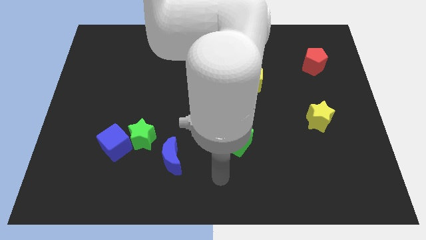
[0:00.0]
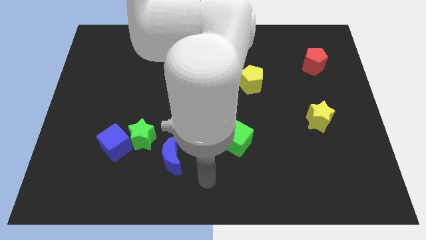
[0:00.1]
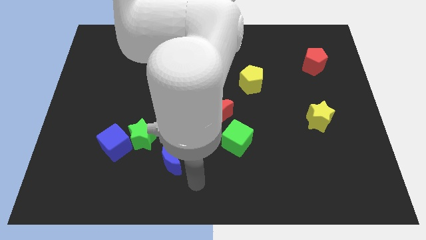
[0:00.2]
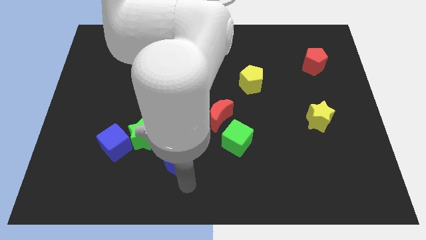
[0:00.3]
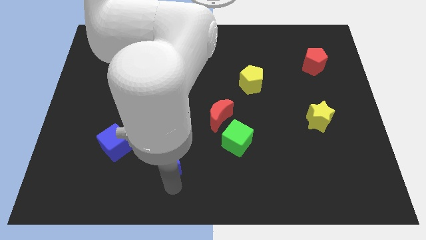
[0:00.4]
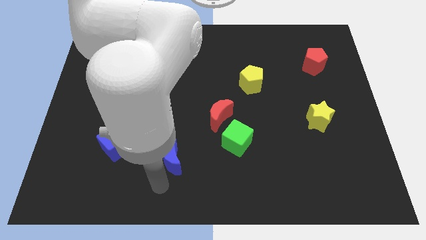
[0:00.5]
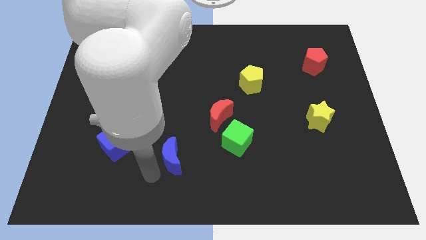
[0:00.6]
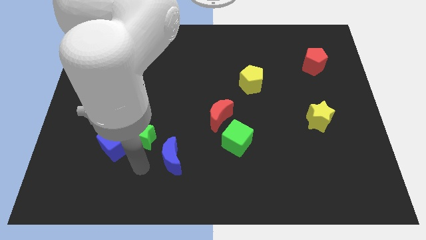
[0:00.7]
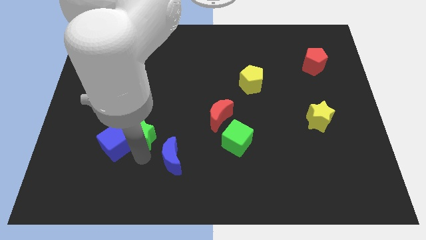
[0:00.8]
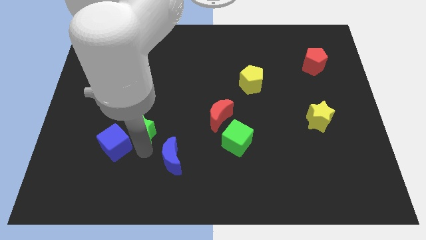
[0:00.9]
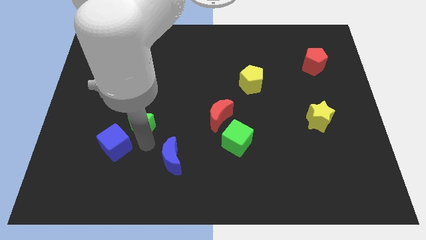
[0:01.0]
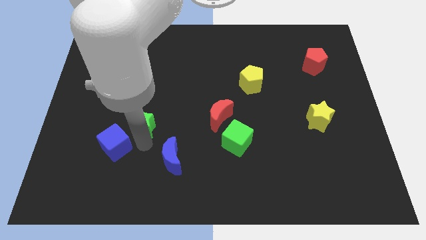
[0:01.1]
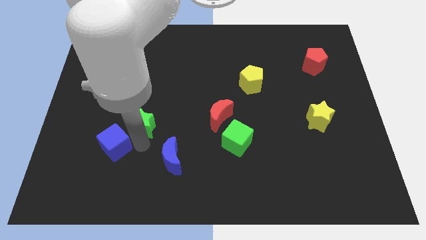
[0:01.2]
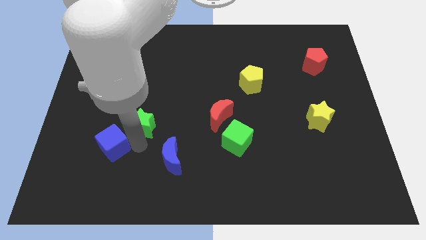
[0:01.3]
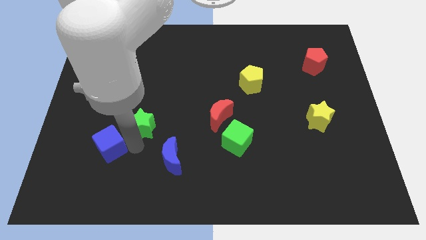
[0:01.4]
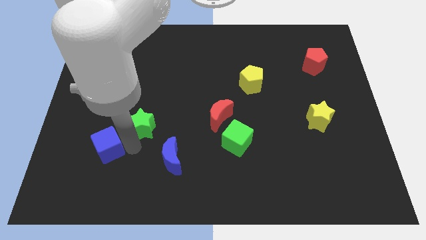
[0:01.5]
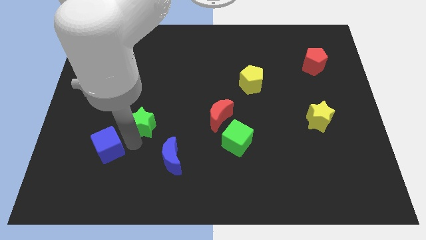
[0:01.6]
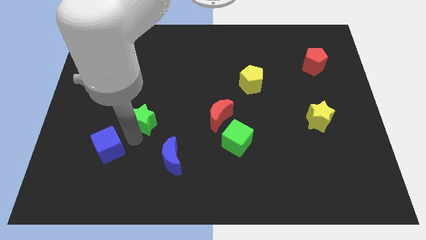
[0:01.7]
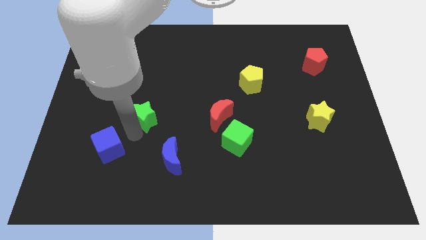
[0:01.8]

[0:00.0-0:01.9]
move the blue cube away from the green star

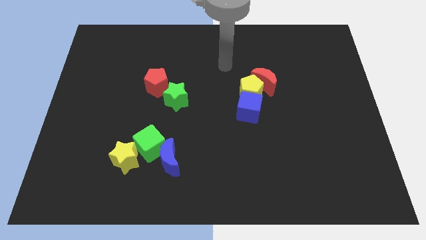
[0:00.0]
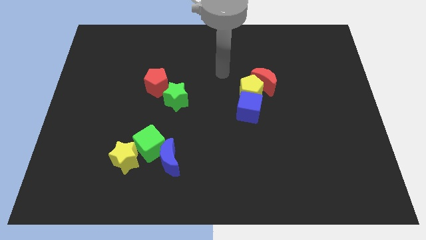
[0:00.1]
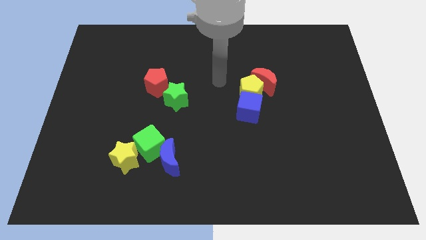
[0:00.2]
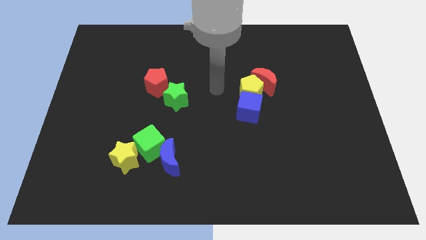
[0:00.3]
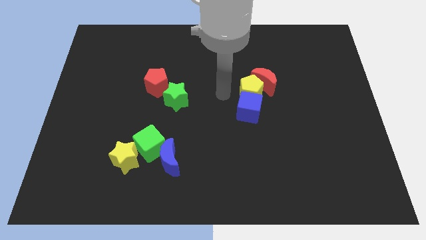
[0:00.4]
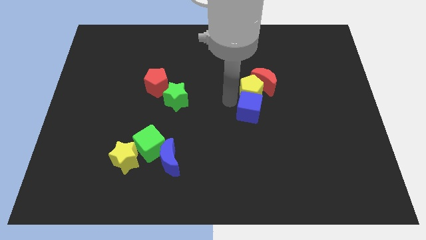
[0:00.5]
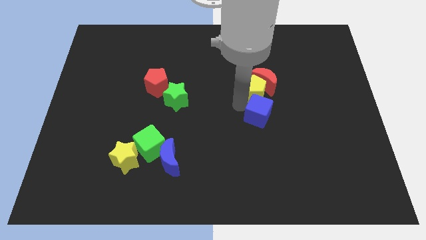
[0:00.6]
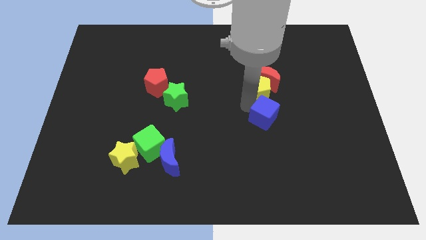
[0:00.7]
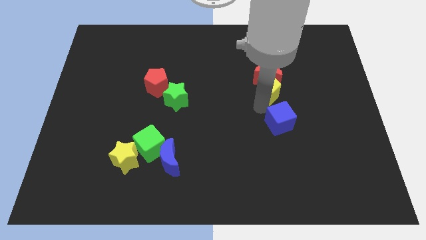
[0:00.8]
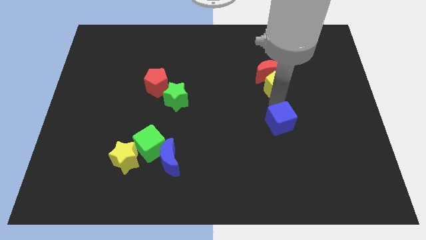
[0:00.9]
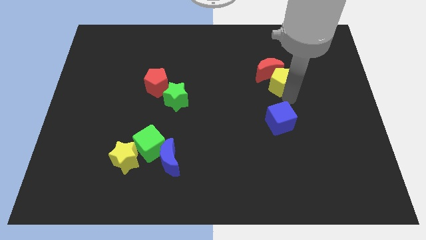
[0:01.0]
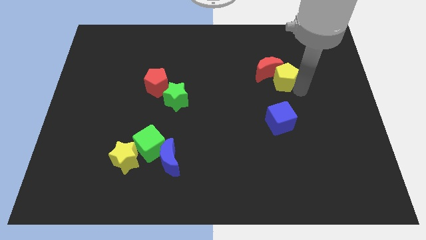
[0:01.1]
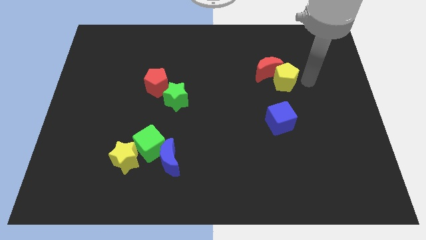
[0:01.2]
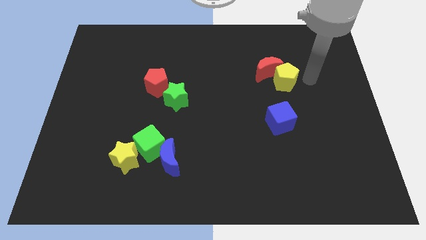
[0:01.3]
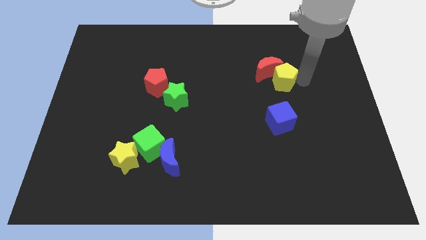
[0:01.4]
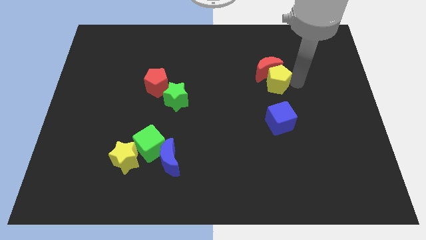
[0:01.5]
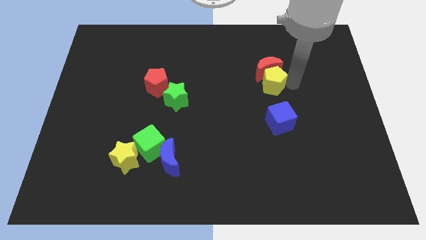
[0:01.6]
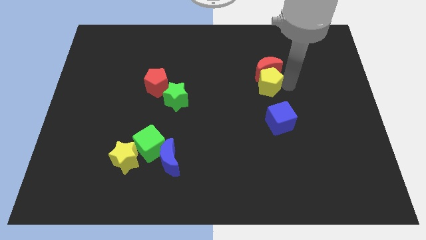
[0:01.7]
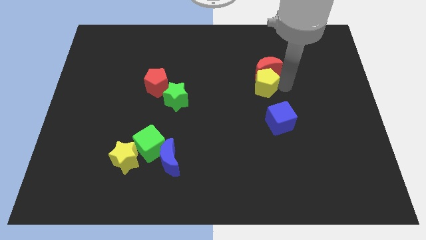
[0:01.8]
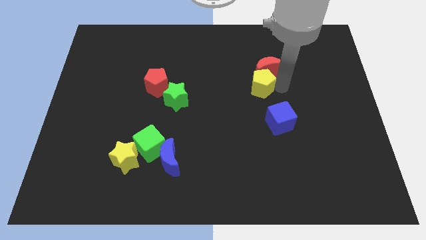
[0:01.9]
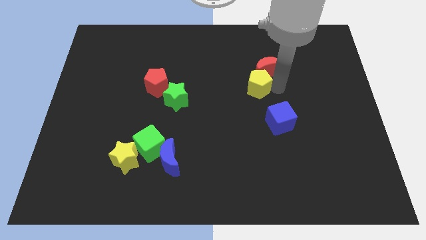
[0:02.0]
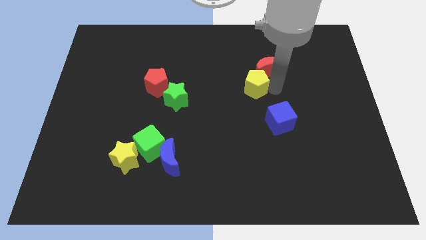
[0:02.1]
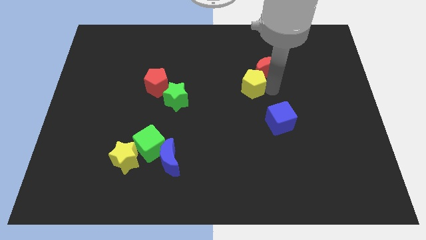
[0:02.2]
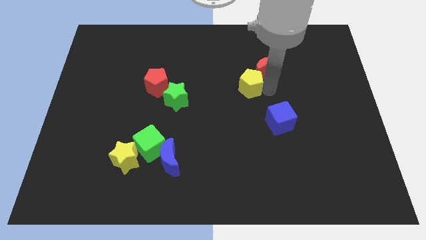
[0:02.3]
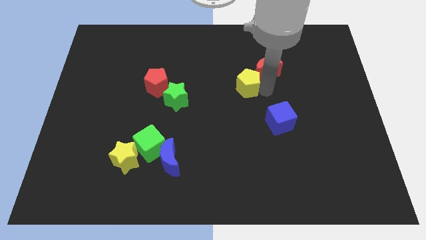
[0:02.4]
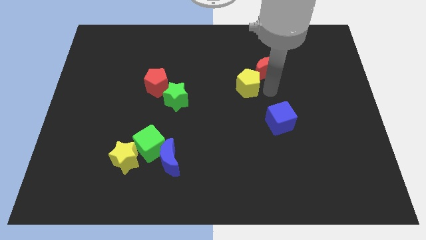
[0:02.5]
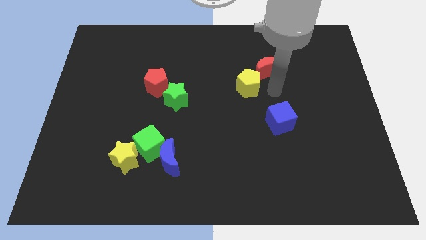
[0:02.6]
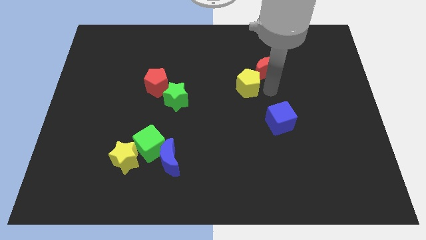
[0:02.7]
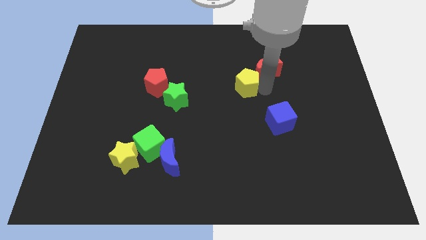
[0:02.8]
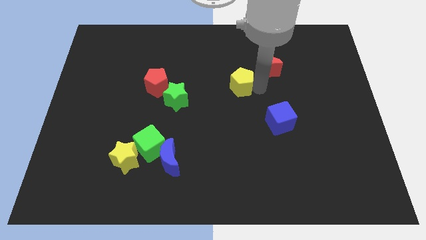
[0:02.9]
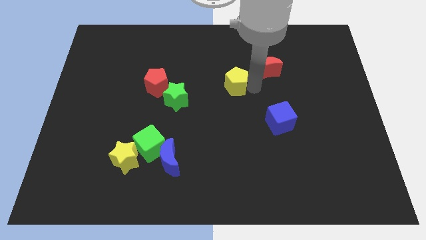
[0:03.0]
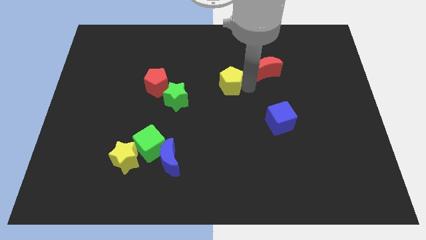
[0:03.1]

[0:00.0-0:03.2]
pull the yellow pentagon apart from the red moon and blue cube

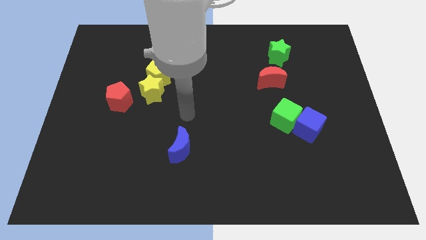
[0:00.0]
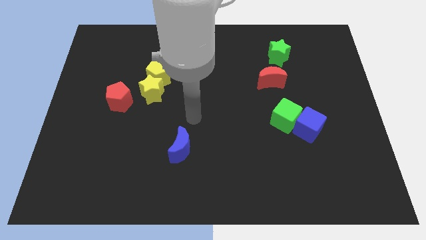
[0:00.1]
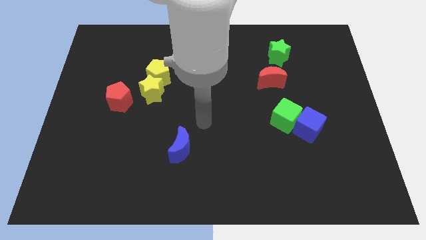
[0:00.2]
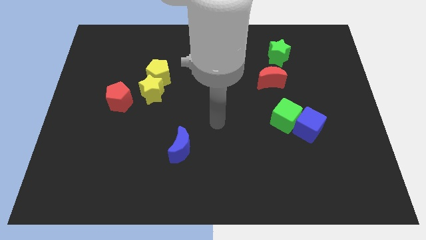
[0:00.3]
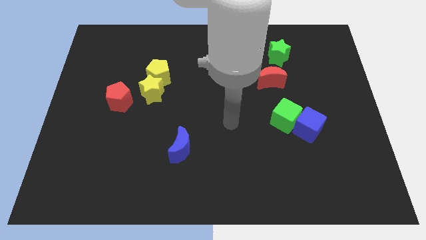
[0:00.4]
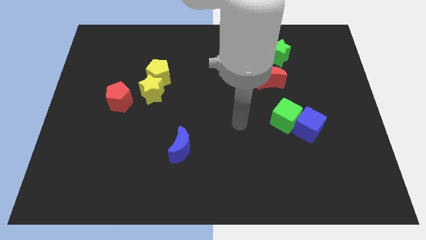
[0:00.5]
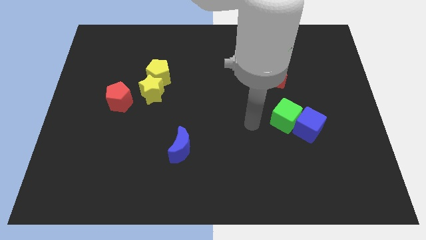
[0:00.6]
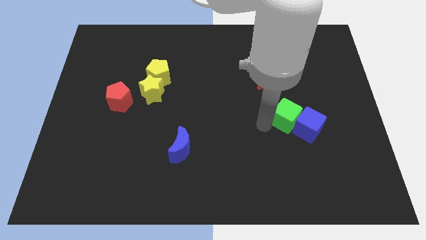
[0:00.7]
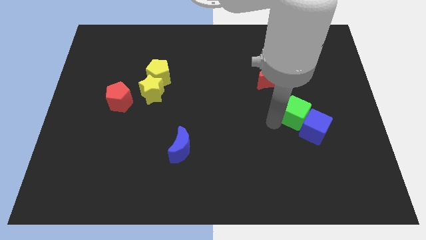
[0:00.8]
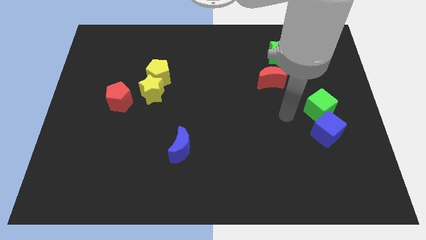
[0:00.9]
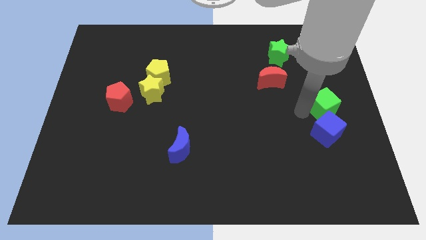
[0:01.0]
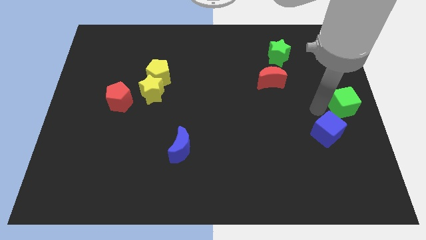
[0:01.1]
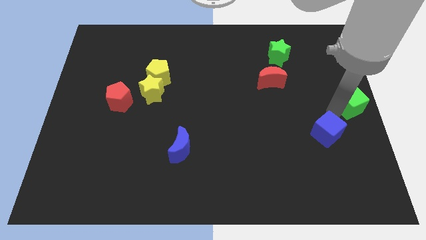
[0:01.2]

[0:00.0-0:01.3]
pull the blue cube apart from the green cube

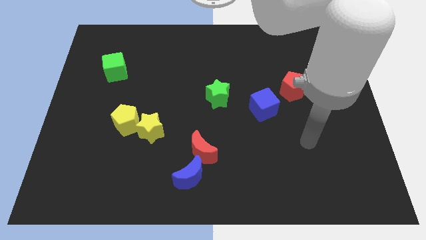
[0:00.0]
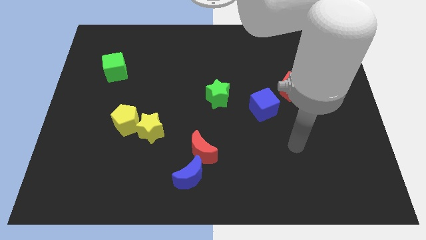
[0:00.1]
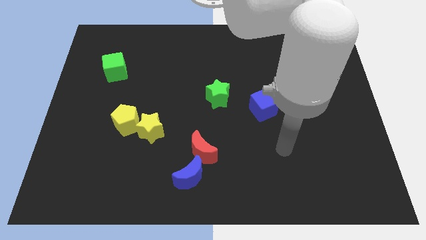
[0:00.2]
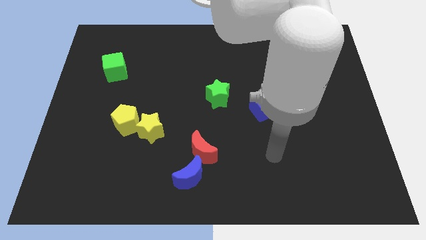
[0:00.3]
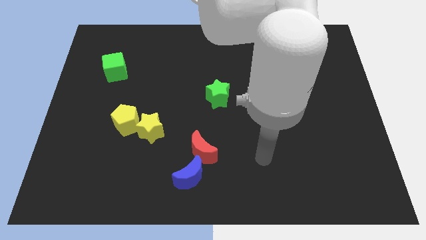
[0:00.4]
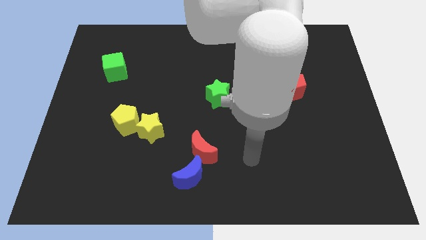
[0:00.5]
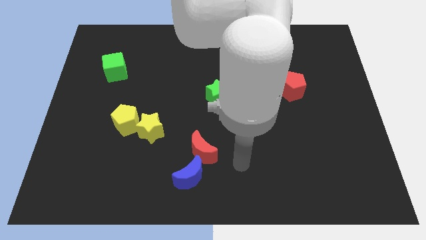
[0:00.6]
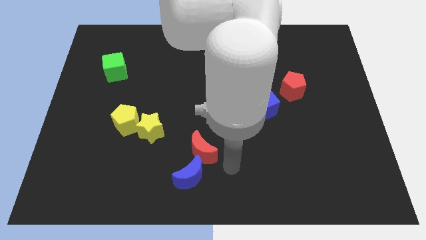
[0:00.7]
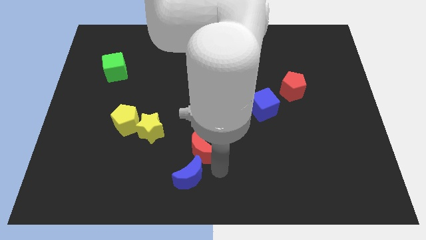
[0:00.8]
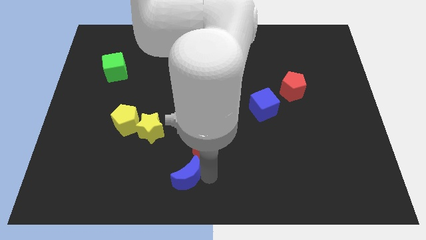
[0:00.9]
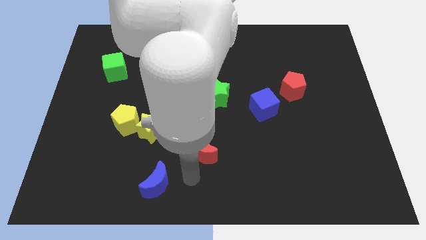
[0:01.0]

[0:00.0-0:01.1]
pull the red moon apart from the blue moon

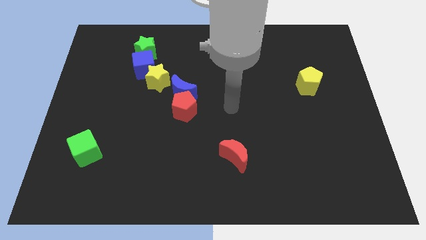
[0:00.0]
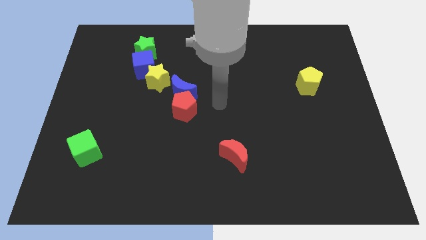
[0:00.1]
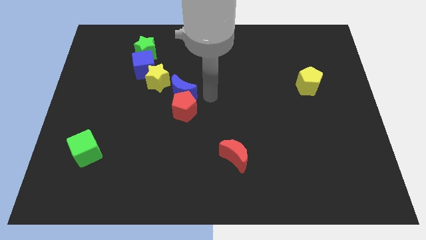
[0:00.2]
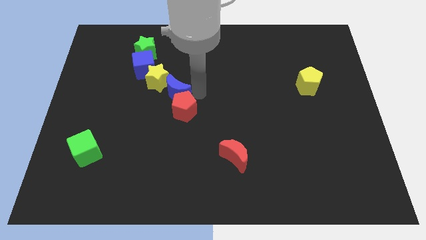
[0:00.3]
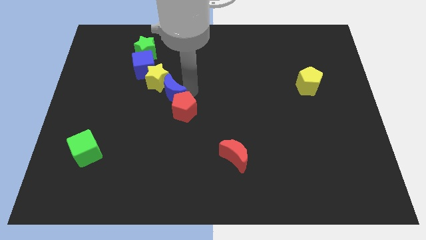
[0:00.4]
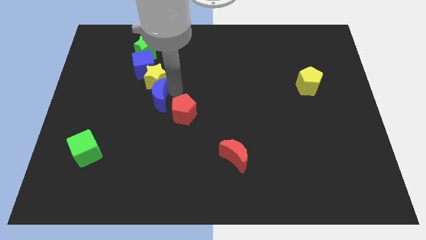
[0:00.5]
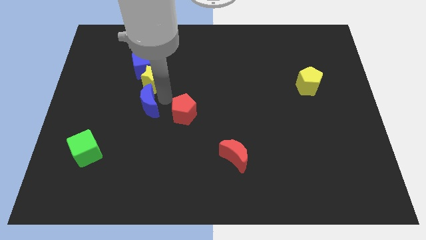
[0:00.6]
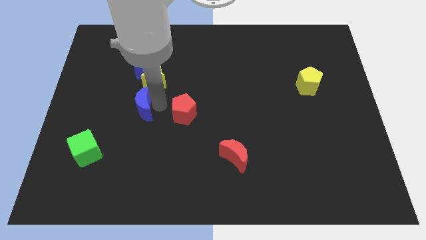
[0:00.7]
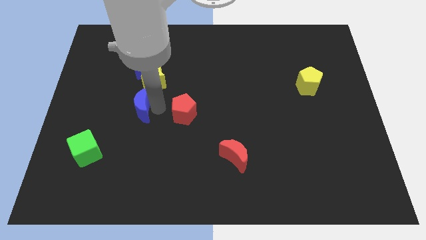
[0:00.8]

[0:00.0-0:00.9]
move the red pentagon away from the blue moon

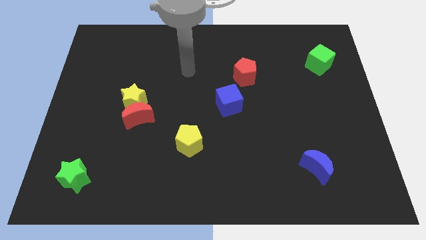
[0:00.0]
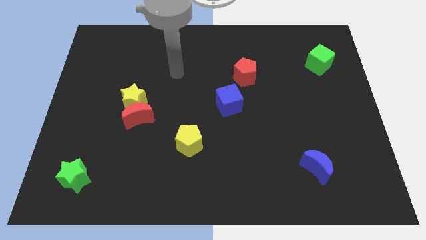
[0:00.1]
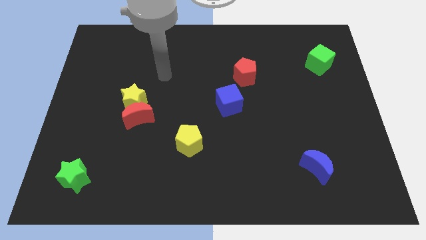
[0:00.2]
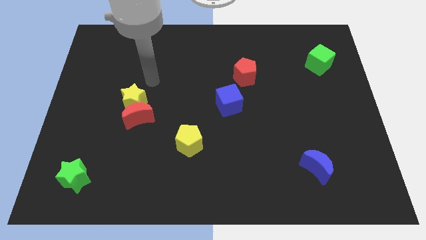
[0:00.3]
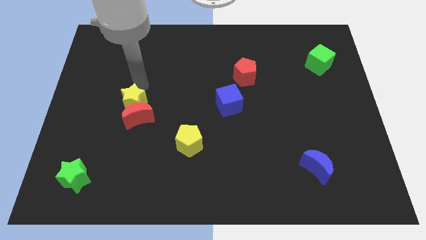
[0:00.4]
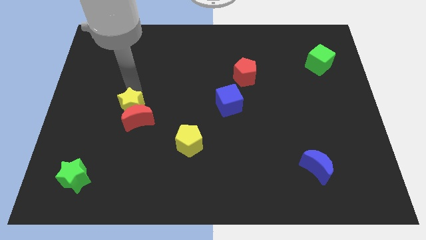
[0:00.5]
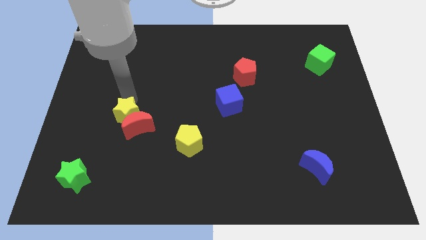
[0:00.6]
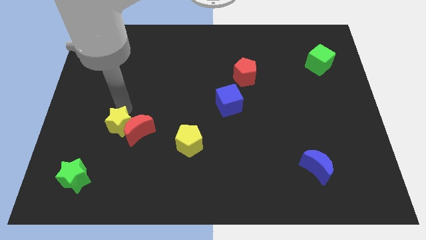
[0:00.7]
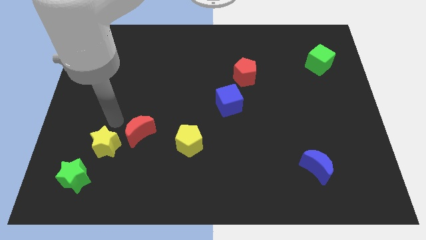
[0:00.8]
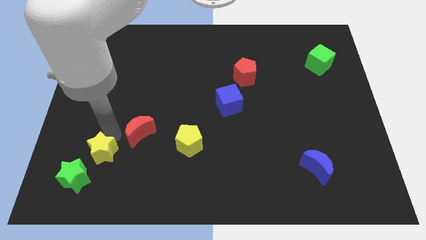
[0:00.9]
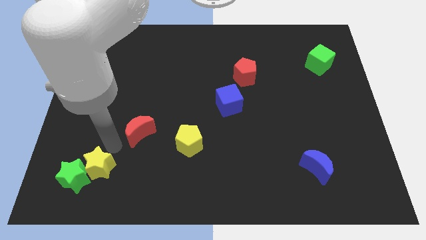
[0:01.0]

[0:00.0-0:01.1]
separate the red moon from the yellow star
